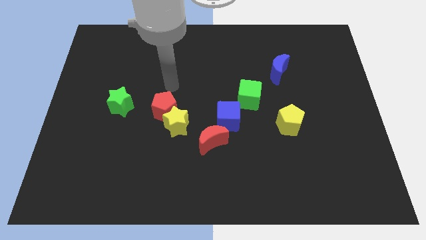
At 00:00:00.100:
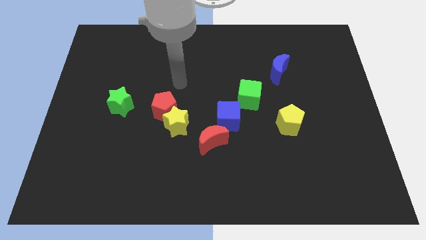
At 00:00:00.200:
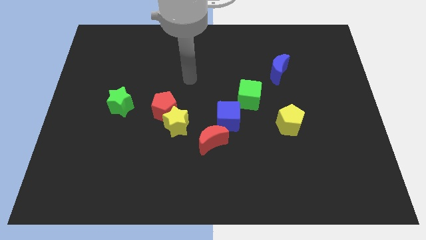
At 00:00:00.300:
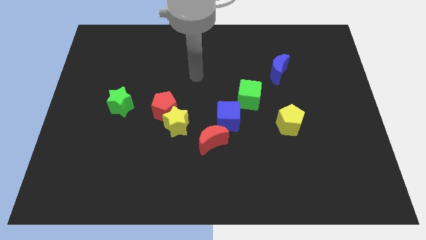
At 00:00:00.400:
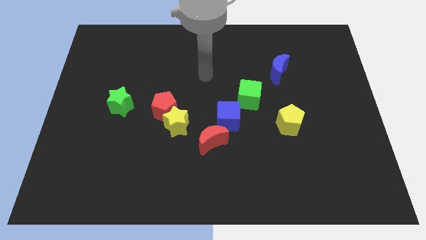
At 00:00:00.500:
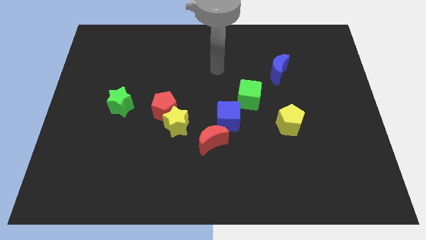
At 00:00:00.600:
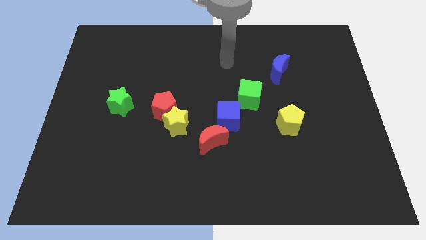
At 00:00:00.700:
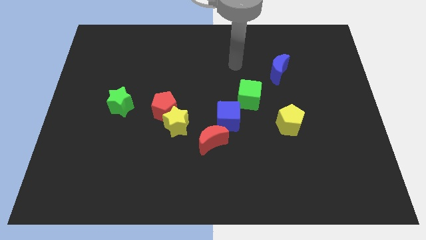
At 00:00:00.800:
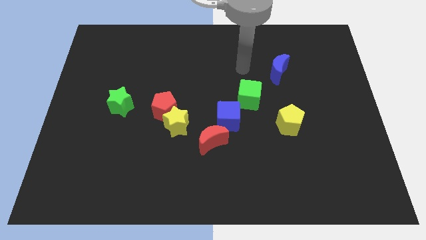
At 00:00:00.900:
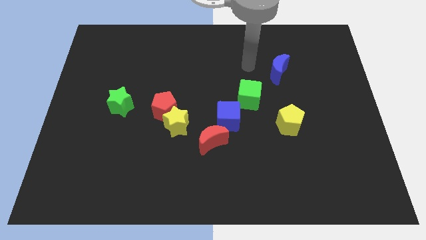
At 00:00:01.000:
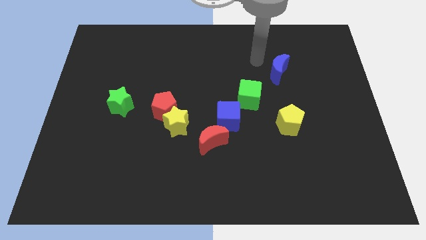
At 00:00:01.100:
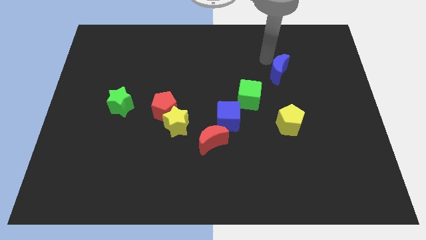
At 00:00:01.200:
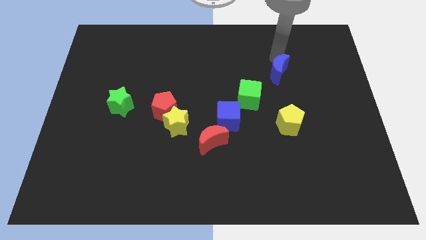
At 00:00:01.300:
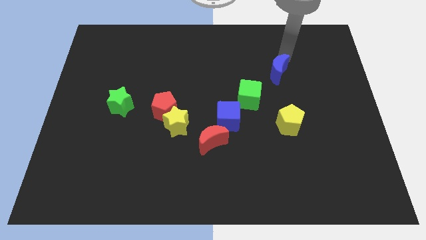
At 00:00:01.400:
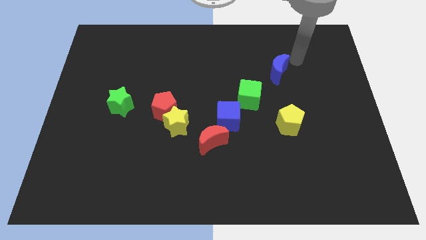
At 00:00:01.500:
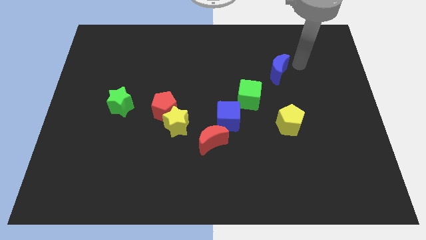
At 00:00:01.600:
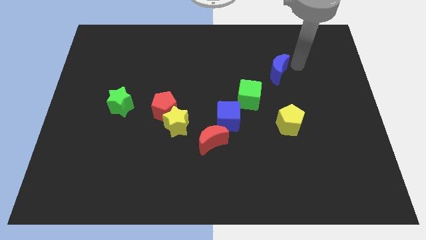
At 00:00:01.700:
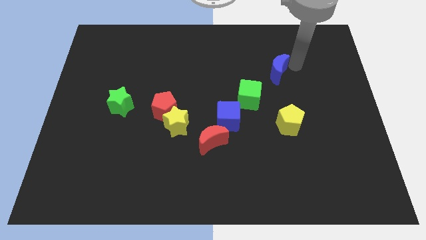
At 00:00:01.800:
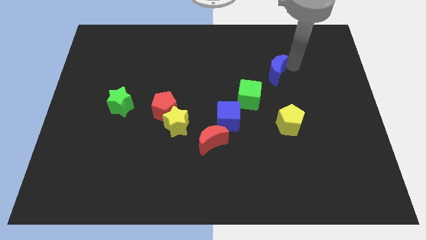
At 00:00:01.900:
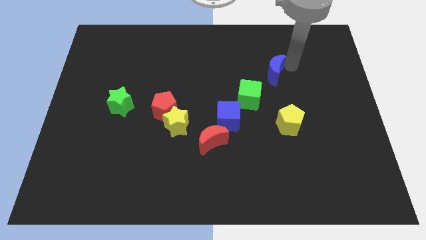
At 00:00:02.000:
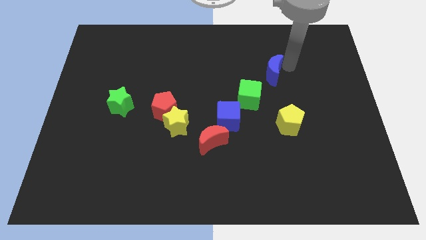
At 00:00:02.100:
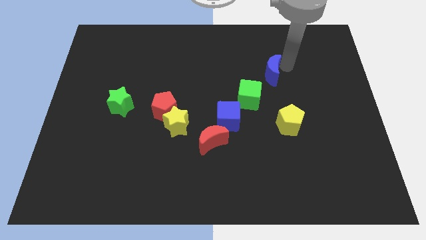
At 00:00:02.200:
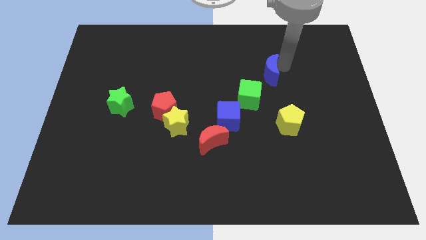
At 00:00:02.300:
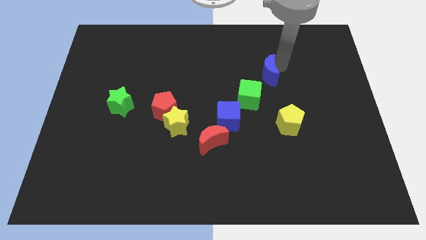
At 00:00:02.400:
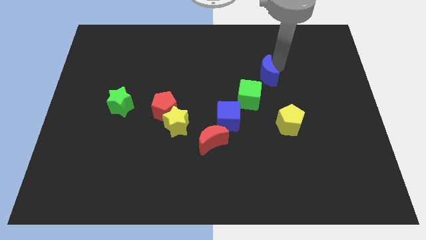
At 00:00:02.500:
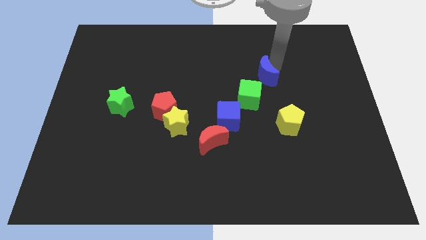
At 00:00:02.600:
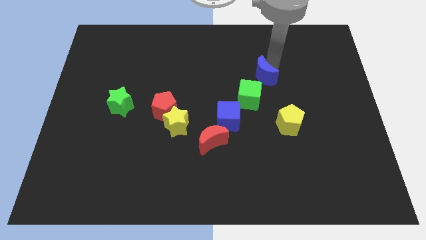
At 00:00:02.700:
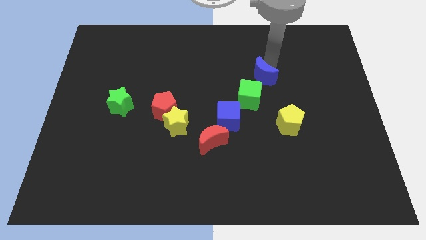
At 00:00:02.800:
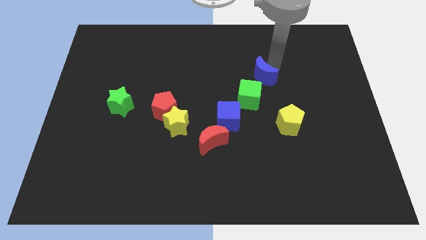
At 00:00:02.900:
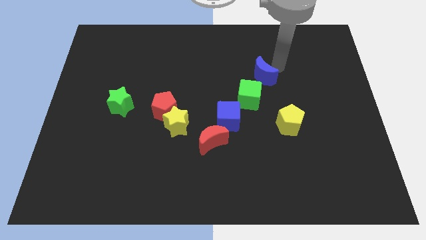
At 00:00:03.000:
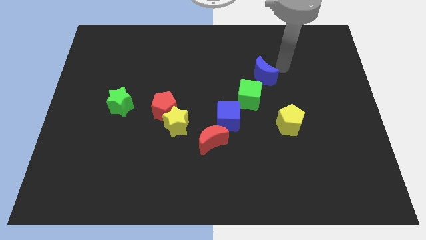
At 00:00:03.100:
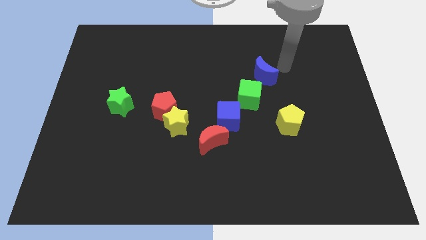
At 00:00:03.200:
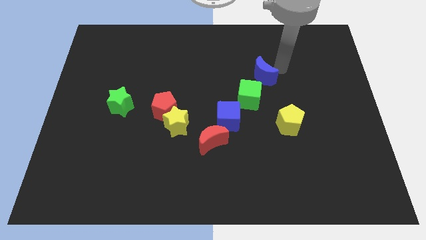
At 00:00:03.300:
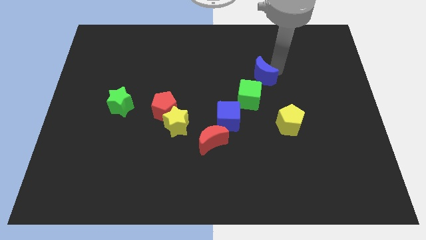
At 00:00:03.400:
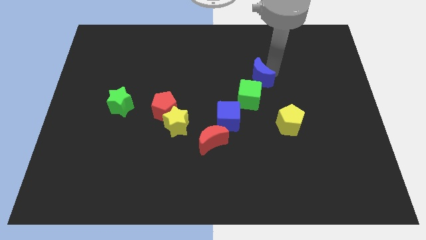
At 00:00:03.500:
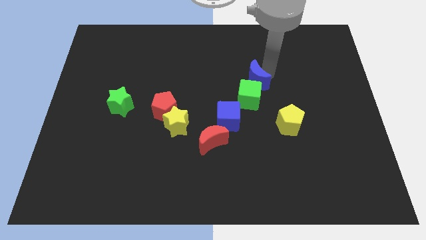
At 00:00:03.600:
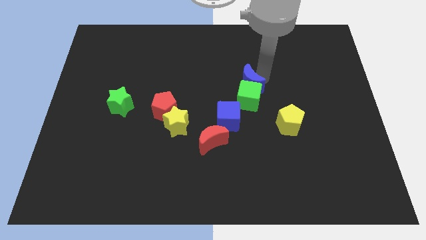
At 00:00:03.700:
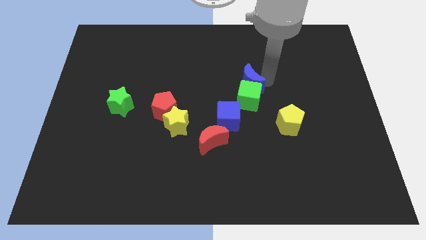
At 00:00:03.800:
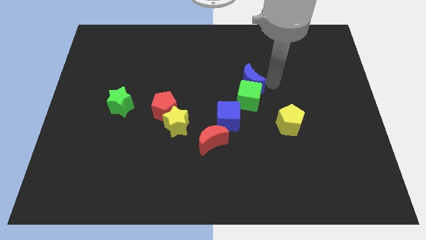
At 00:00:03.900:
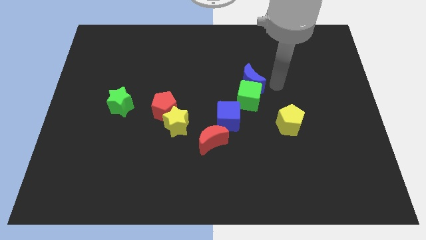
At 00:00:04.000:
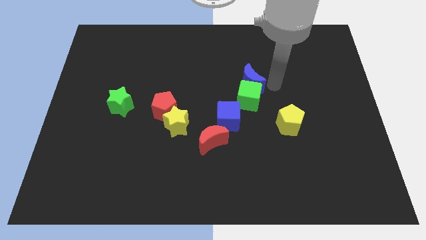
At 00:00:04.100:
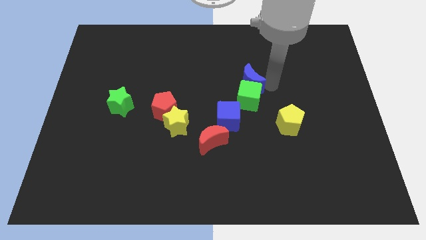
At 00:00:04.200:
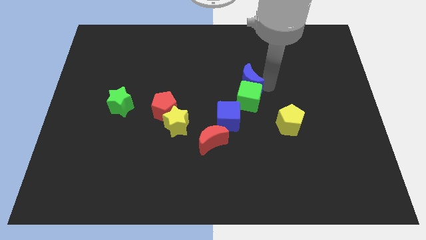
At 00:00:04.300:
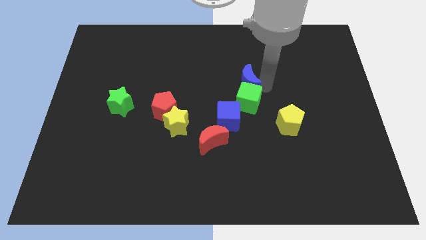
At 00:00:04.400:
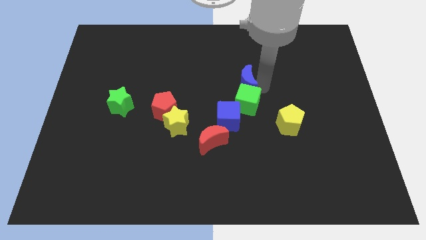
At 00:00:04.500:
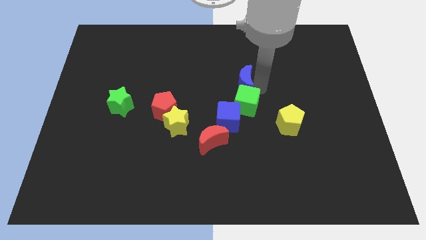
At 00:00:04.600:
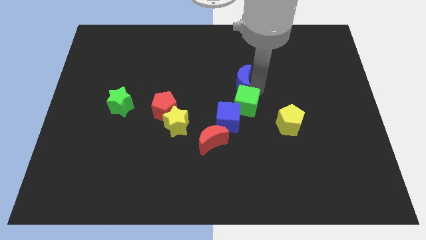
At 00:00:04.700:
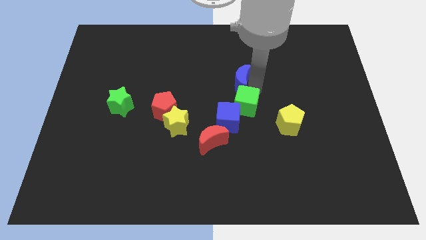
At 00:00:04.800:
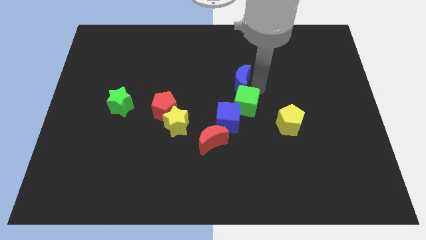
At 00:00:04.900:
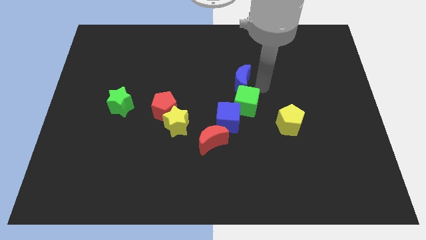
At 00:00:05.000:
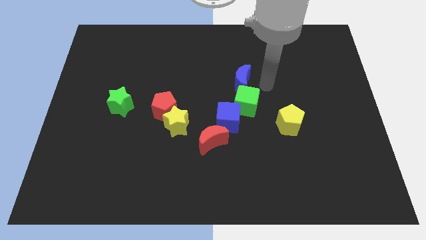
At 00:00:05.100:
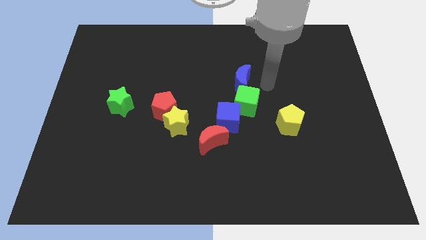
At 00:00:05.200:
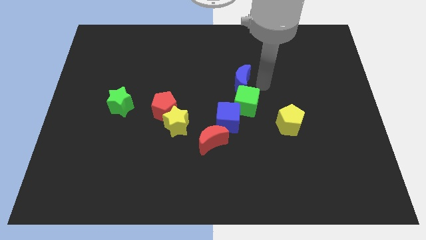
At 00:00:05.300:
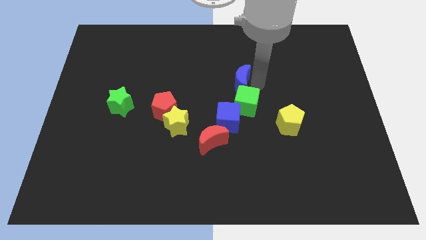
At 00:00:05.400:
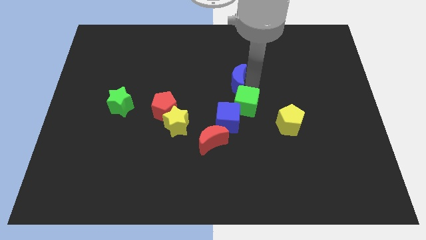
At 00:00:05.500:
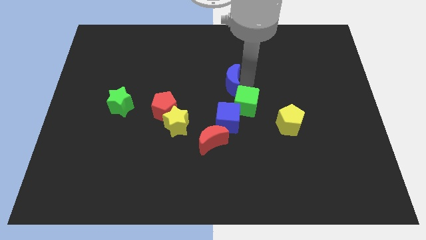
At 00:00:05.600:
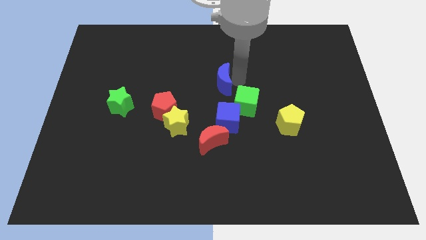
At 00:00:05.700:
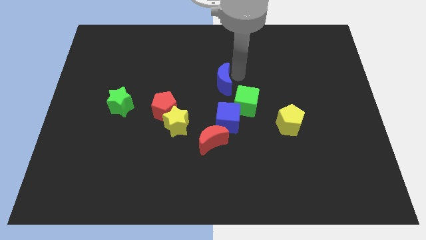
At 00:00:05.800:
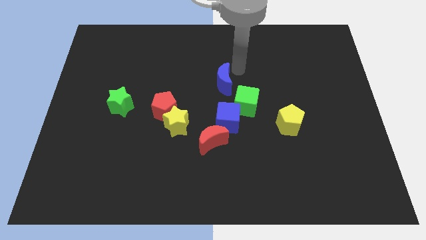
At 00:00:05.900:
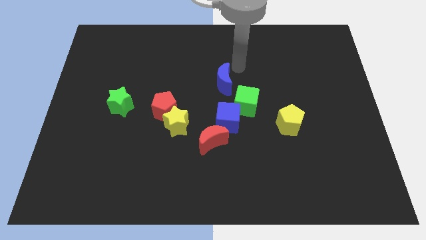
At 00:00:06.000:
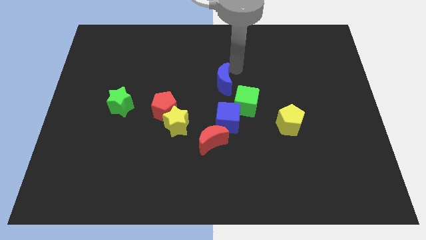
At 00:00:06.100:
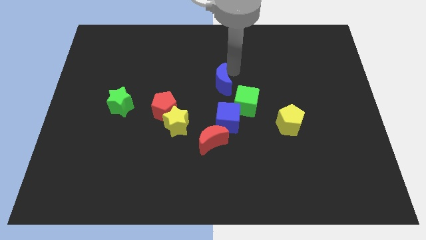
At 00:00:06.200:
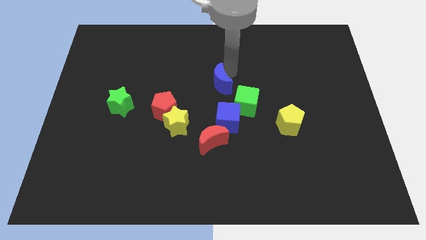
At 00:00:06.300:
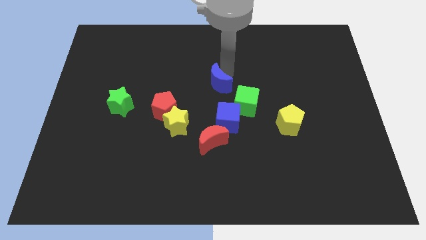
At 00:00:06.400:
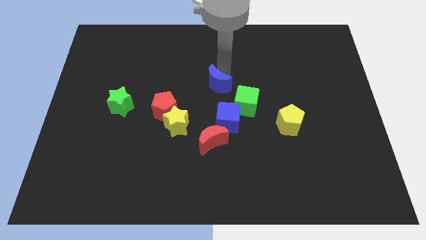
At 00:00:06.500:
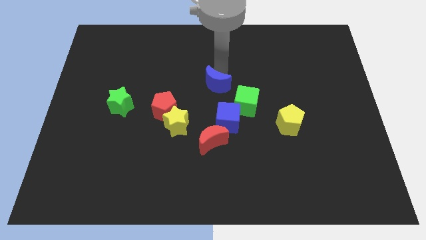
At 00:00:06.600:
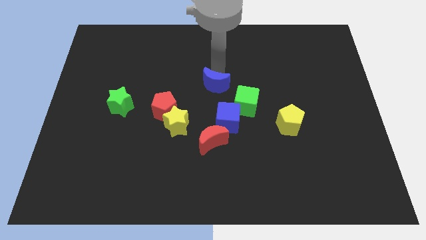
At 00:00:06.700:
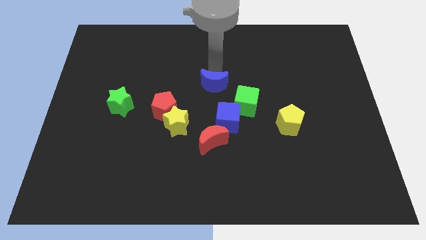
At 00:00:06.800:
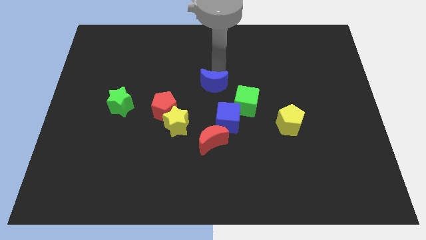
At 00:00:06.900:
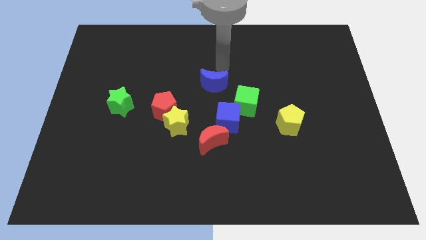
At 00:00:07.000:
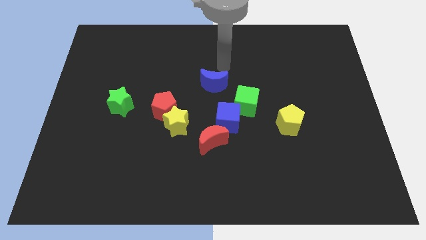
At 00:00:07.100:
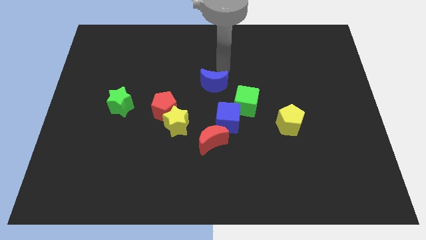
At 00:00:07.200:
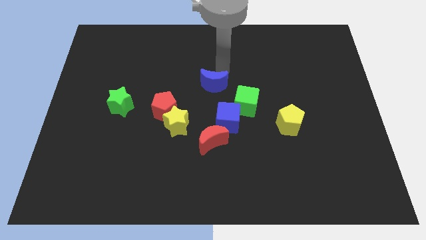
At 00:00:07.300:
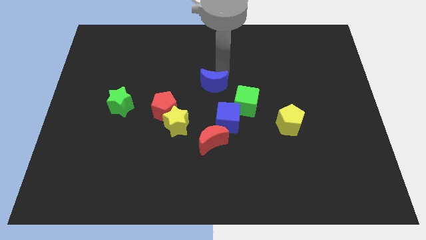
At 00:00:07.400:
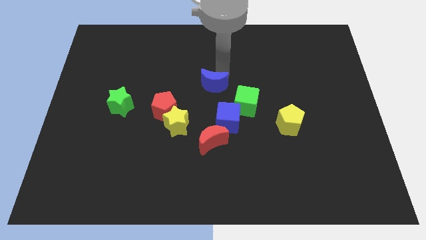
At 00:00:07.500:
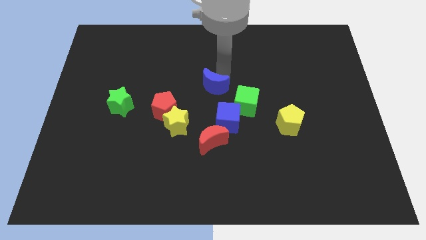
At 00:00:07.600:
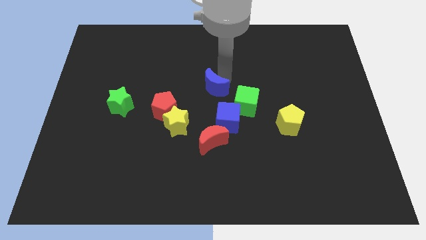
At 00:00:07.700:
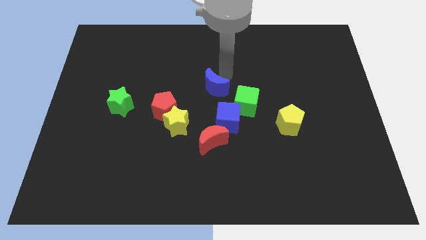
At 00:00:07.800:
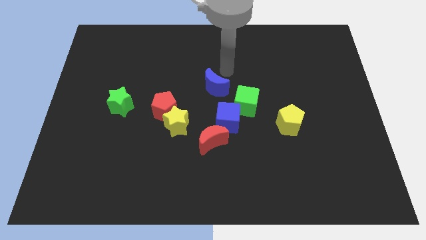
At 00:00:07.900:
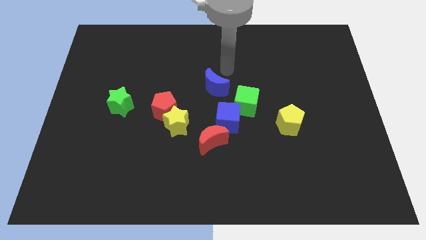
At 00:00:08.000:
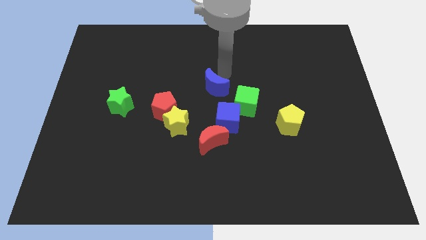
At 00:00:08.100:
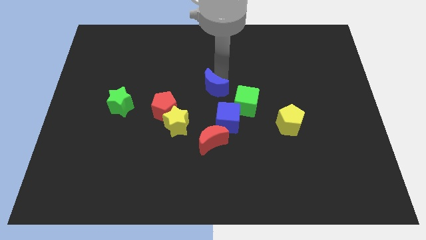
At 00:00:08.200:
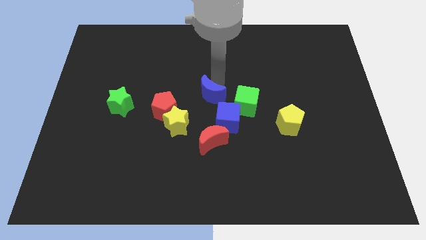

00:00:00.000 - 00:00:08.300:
move the blue moon just left of the green cube
